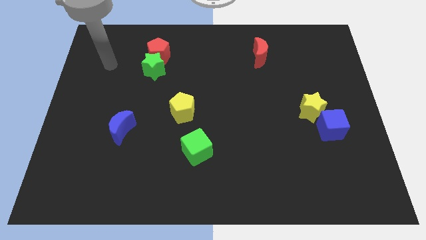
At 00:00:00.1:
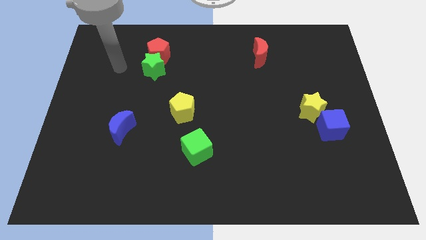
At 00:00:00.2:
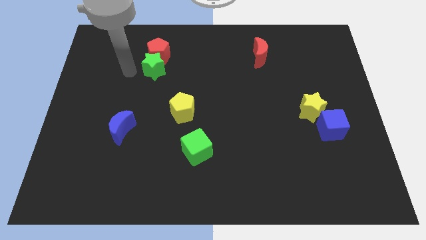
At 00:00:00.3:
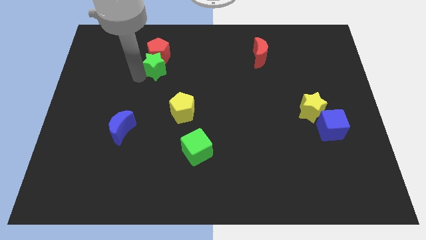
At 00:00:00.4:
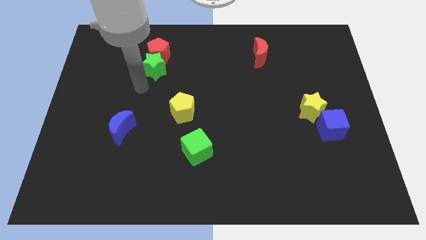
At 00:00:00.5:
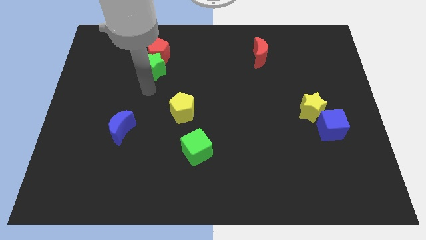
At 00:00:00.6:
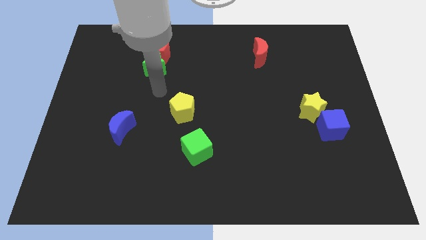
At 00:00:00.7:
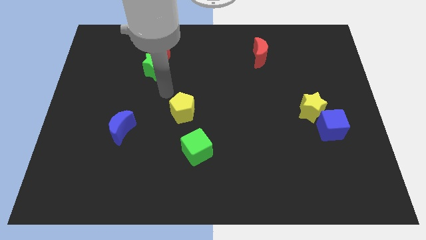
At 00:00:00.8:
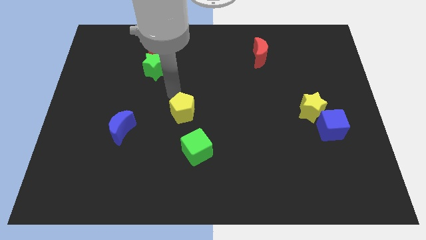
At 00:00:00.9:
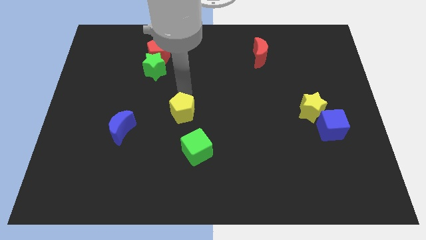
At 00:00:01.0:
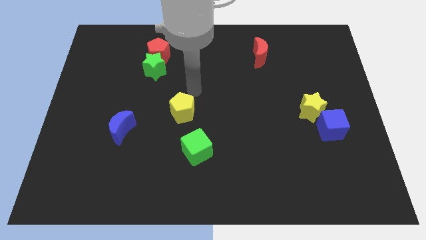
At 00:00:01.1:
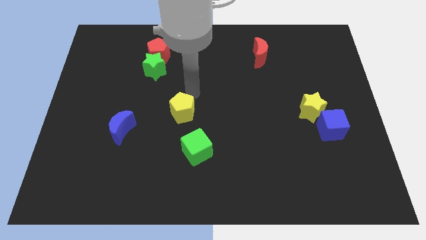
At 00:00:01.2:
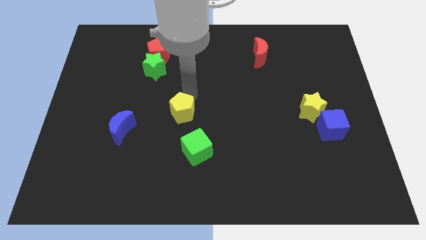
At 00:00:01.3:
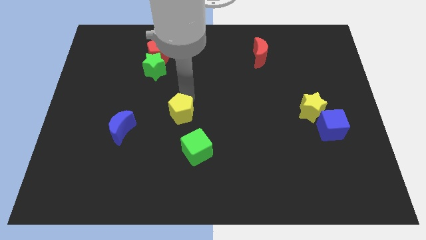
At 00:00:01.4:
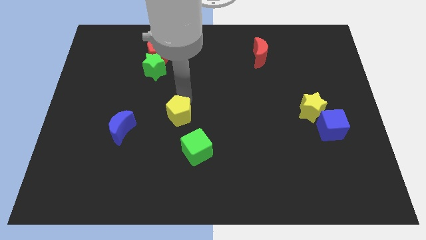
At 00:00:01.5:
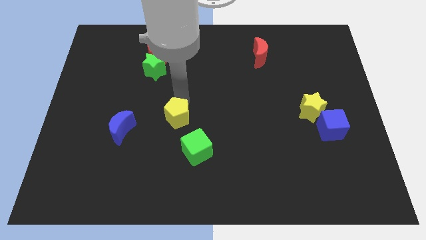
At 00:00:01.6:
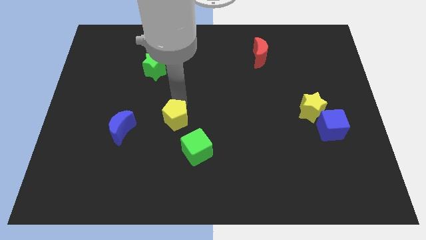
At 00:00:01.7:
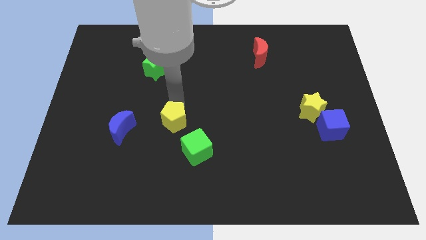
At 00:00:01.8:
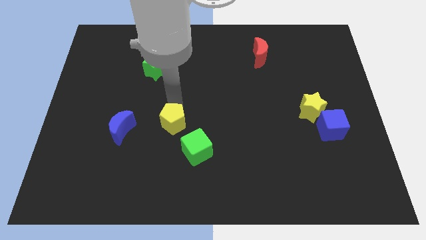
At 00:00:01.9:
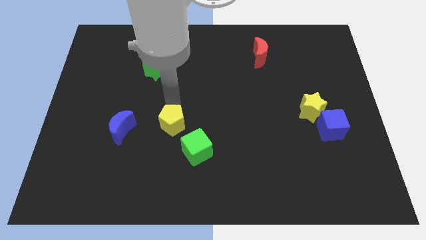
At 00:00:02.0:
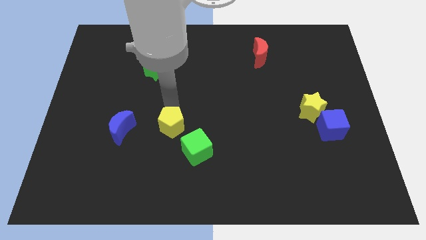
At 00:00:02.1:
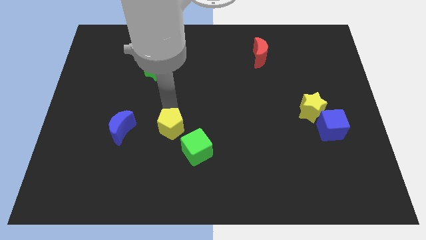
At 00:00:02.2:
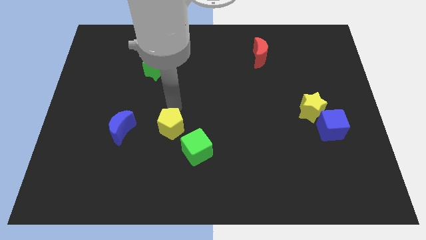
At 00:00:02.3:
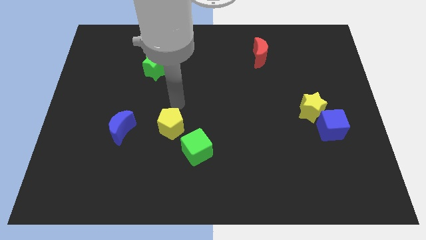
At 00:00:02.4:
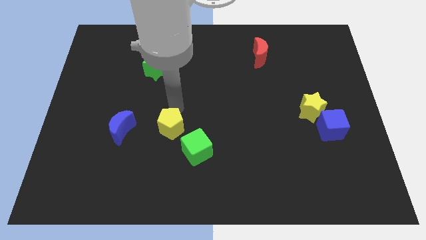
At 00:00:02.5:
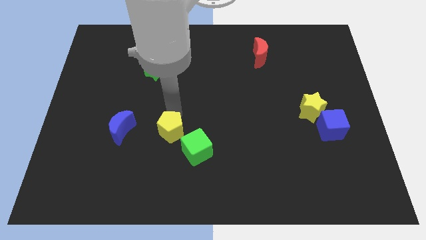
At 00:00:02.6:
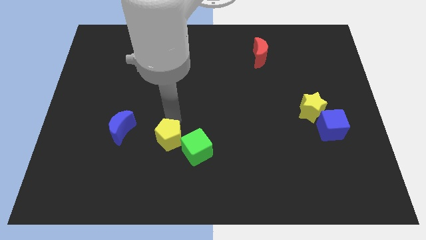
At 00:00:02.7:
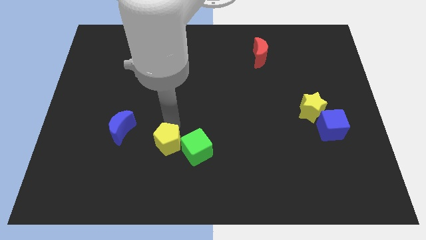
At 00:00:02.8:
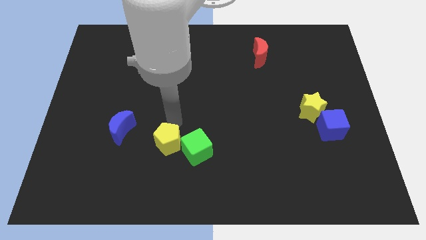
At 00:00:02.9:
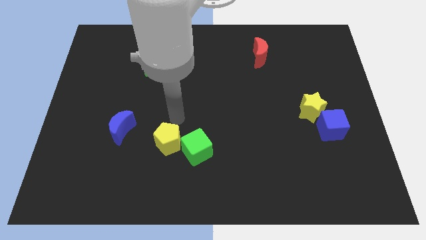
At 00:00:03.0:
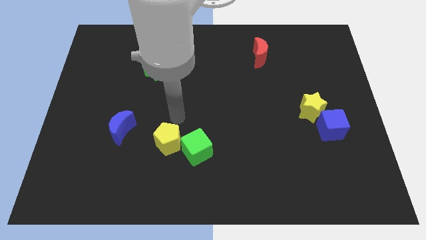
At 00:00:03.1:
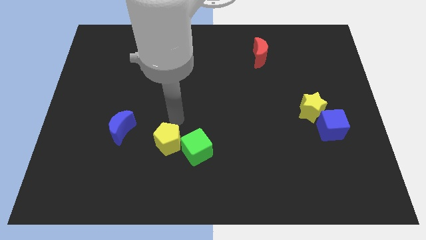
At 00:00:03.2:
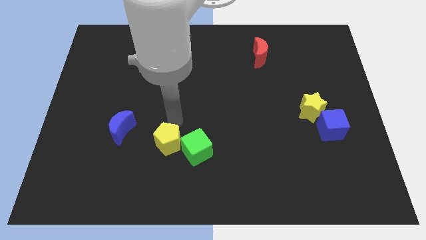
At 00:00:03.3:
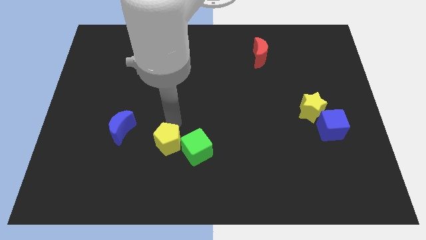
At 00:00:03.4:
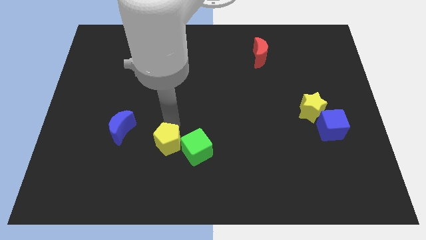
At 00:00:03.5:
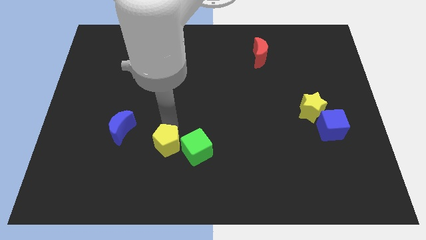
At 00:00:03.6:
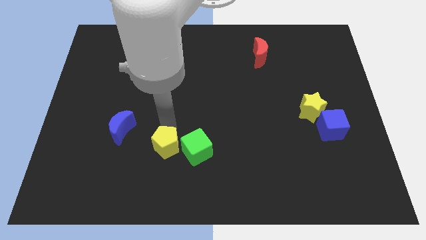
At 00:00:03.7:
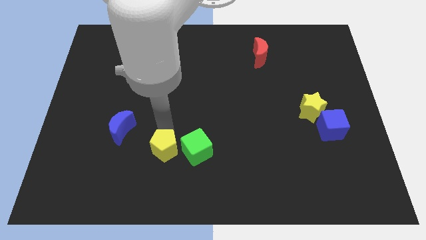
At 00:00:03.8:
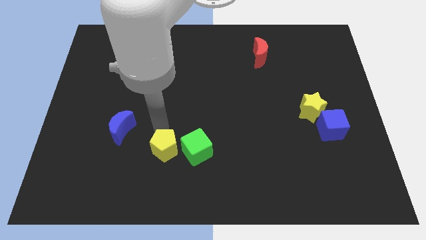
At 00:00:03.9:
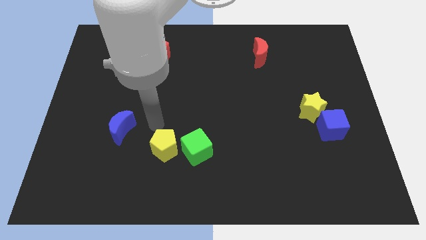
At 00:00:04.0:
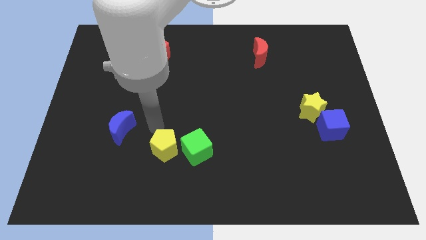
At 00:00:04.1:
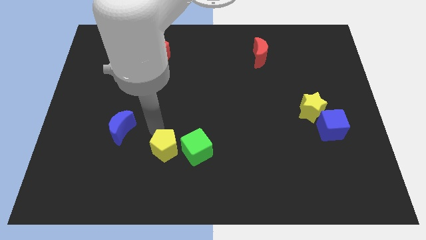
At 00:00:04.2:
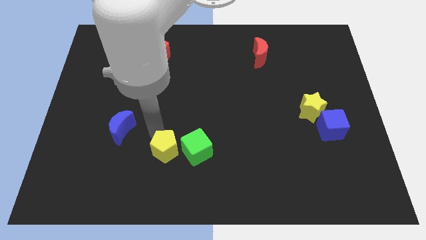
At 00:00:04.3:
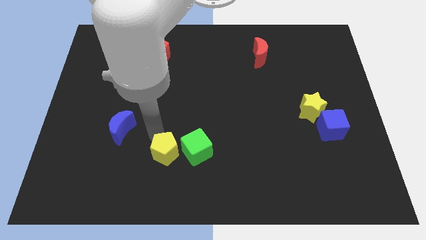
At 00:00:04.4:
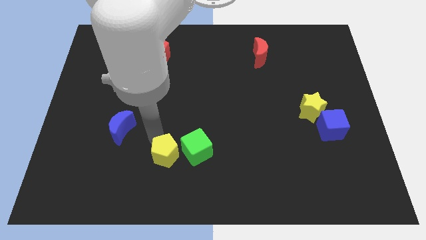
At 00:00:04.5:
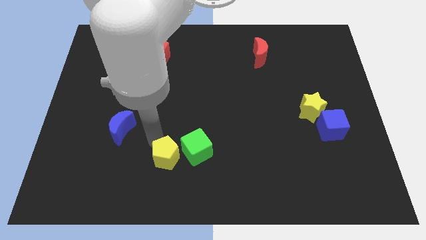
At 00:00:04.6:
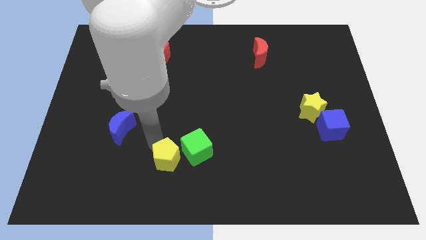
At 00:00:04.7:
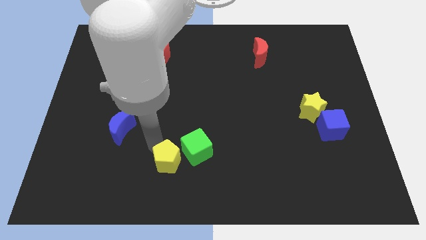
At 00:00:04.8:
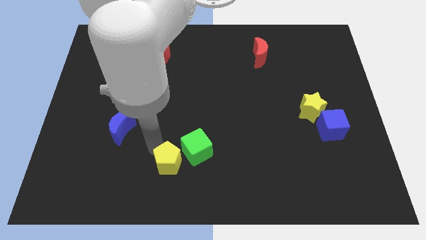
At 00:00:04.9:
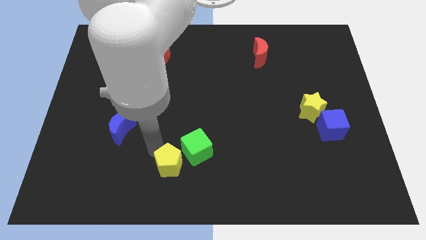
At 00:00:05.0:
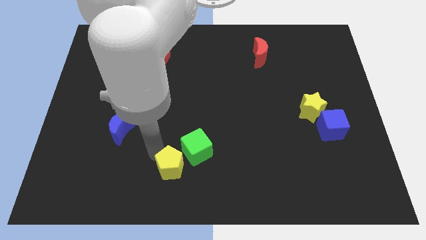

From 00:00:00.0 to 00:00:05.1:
slide the yellow pentagon to the bottom

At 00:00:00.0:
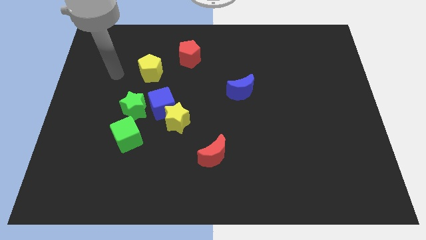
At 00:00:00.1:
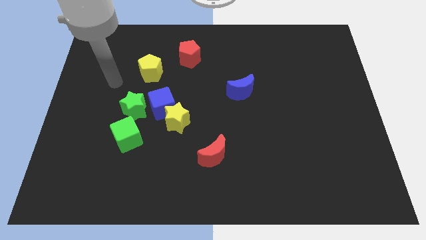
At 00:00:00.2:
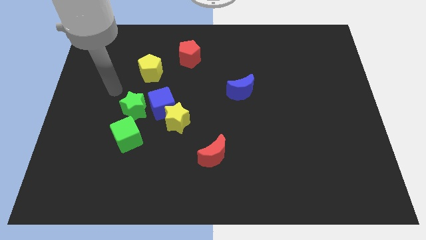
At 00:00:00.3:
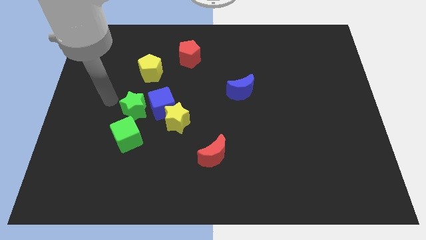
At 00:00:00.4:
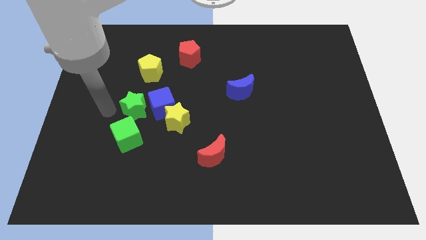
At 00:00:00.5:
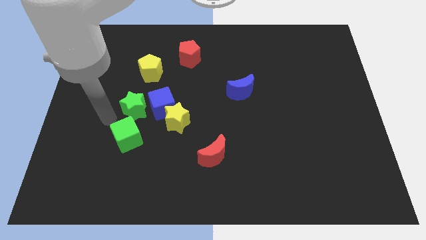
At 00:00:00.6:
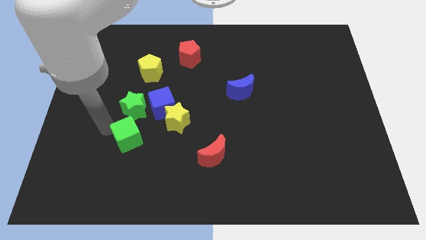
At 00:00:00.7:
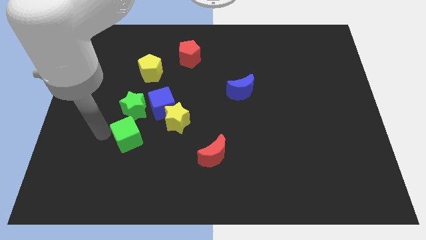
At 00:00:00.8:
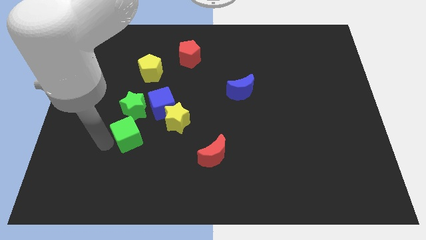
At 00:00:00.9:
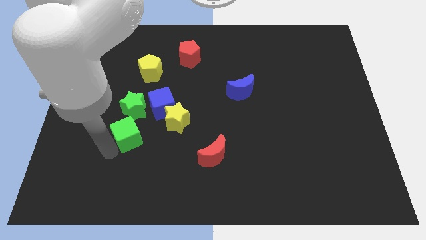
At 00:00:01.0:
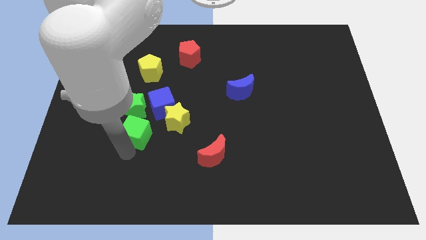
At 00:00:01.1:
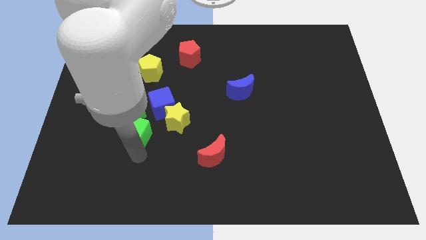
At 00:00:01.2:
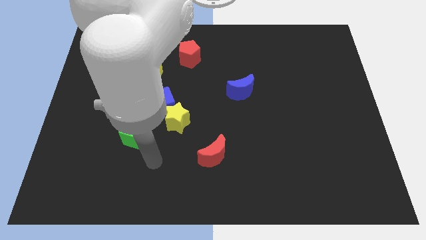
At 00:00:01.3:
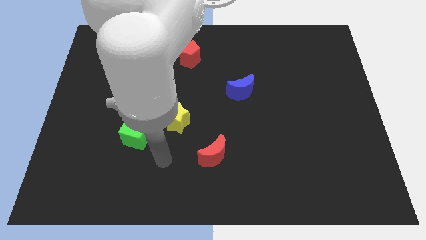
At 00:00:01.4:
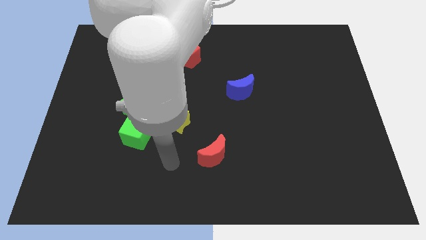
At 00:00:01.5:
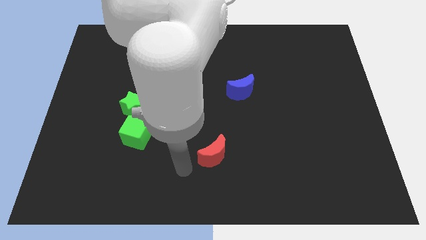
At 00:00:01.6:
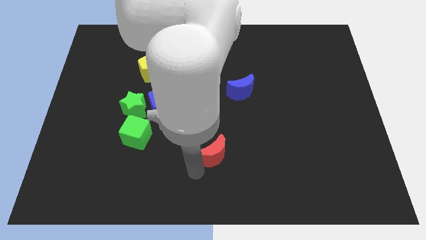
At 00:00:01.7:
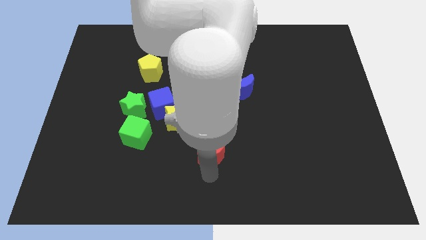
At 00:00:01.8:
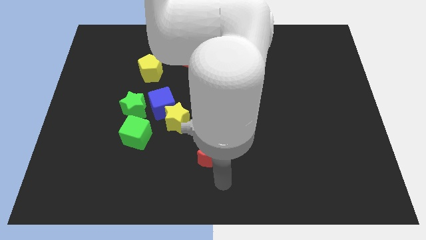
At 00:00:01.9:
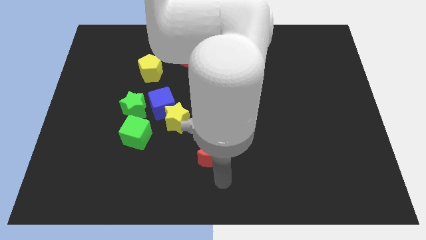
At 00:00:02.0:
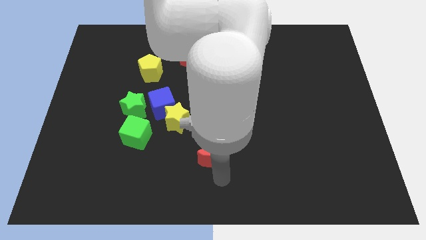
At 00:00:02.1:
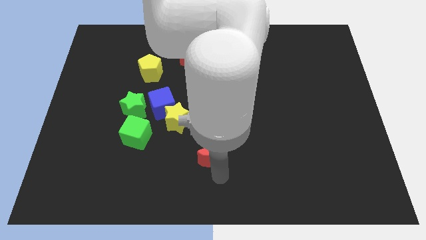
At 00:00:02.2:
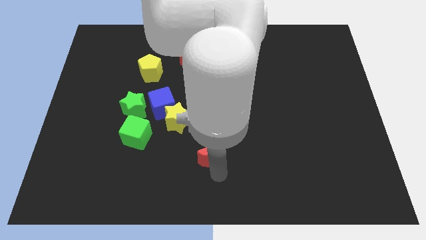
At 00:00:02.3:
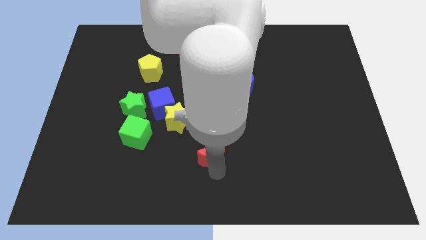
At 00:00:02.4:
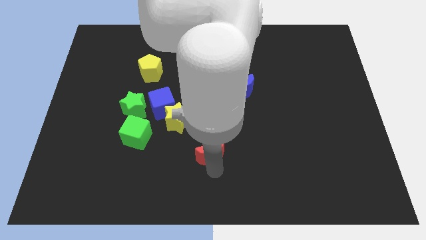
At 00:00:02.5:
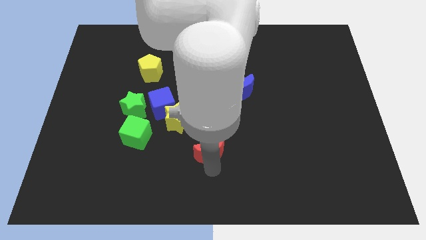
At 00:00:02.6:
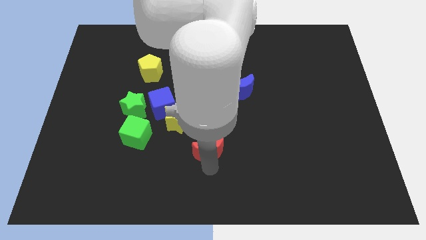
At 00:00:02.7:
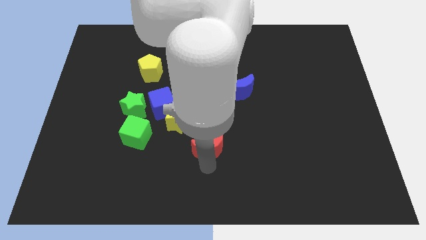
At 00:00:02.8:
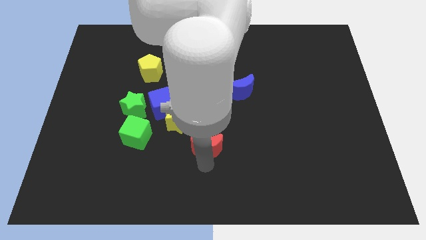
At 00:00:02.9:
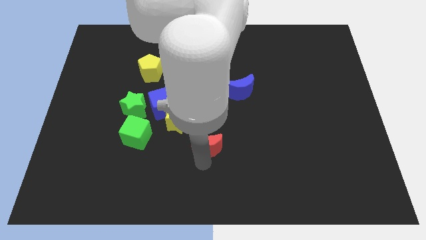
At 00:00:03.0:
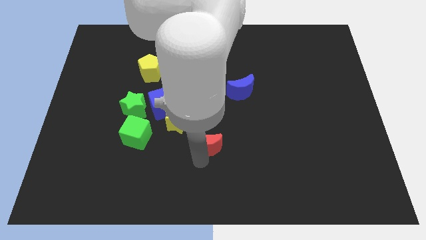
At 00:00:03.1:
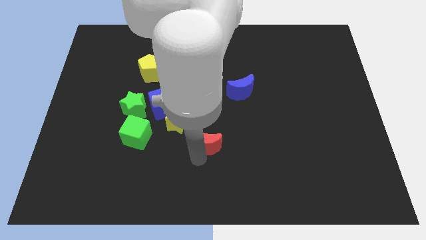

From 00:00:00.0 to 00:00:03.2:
slide the red moon to the center of the board
